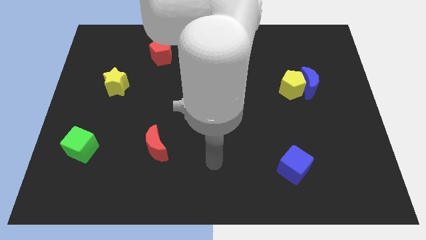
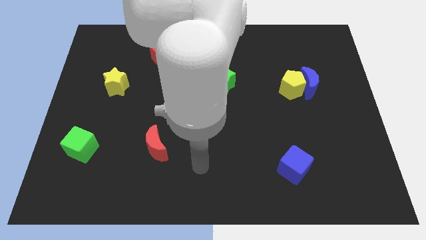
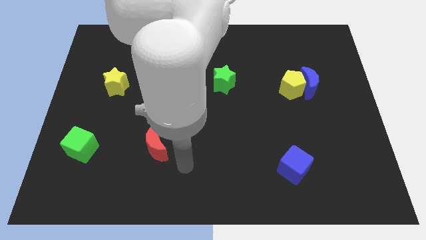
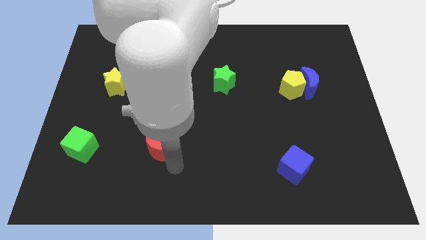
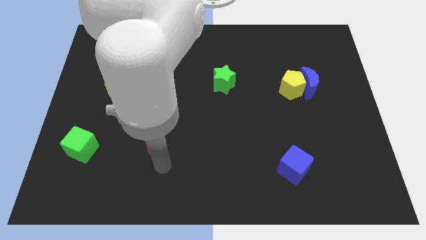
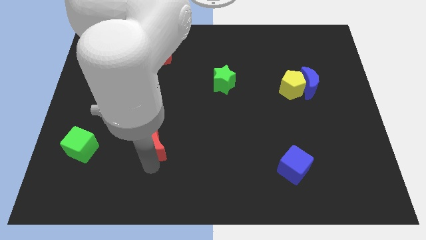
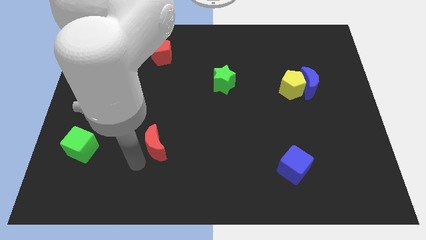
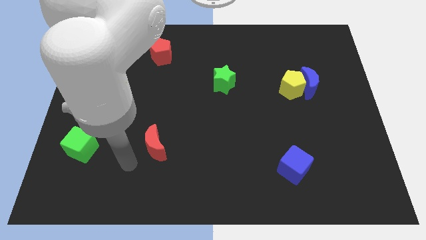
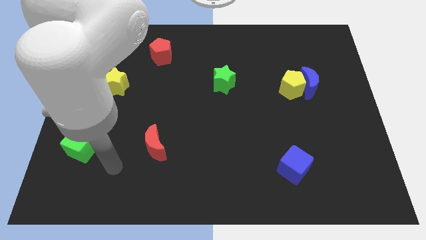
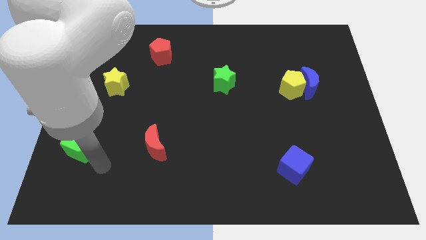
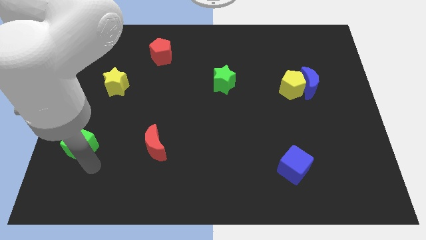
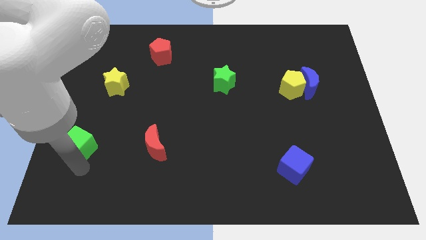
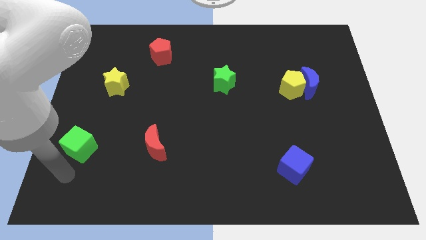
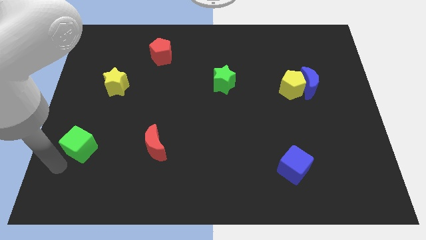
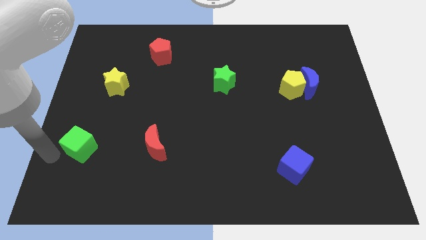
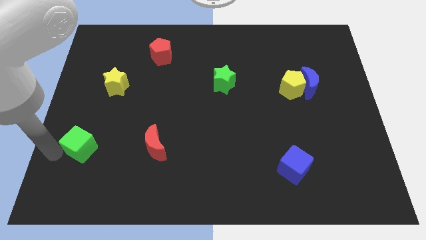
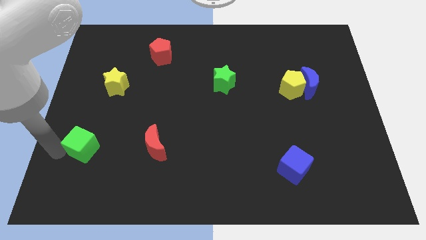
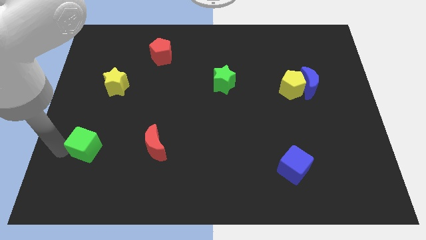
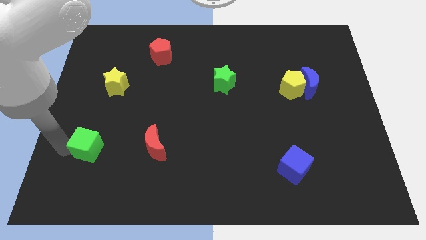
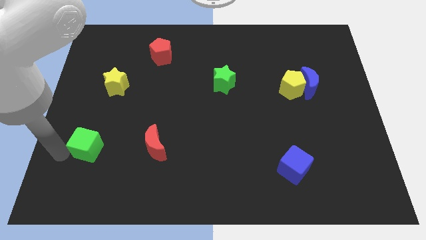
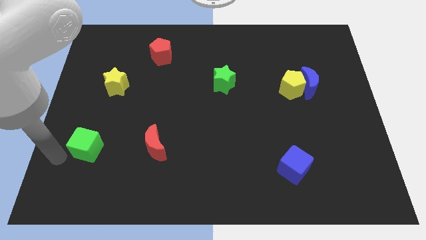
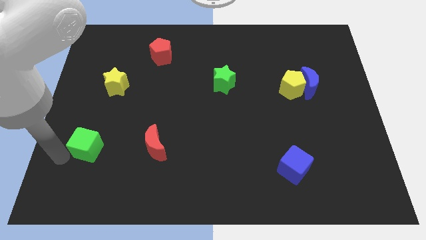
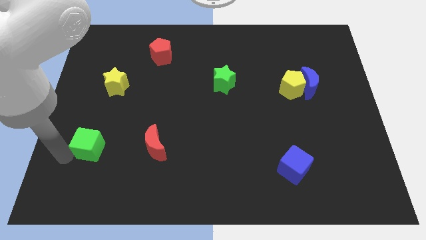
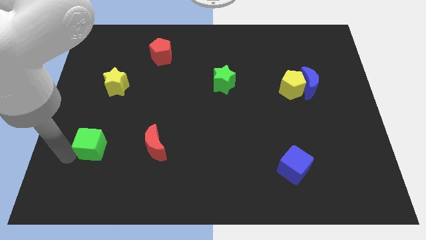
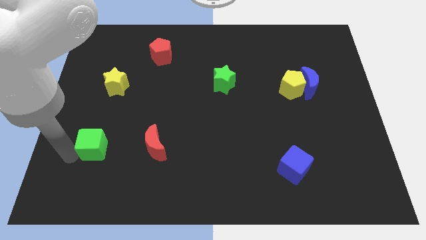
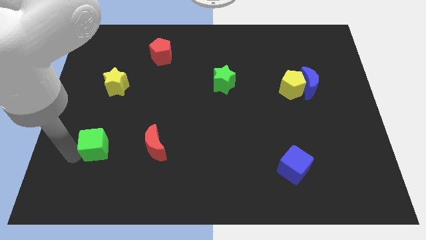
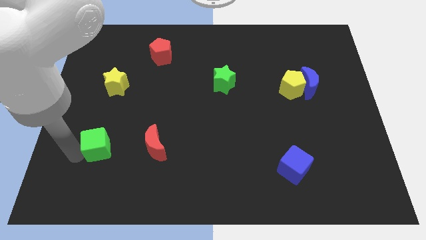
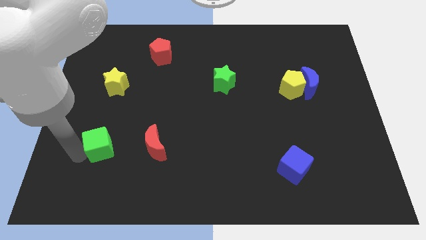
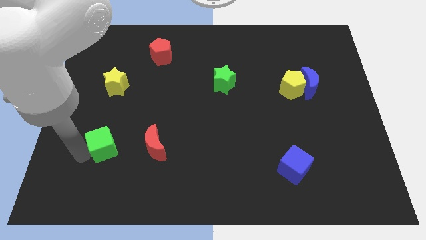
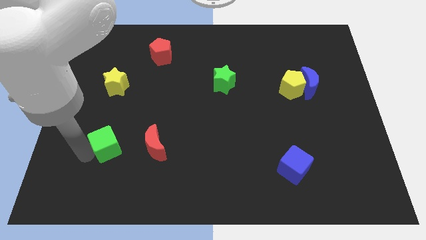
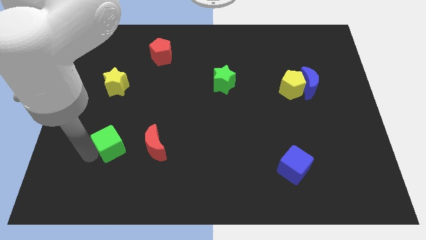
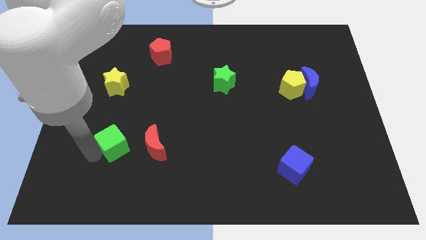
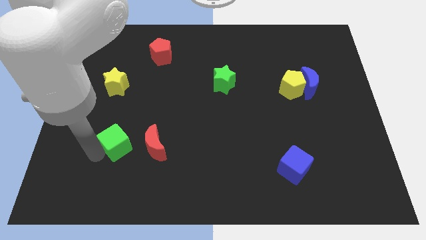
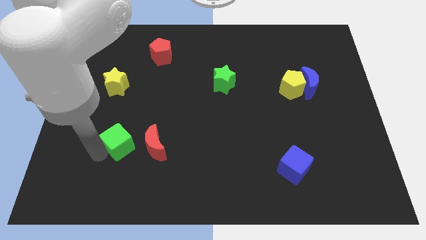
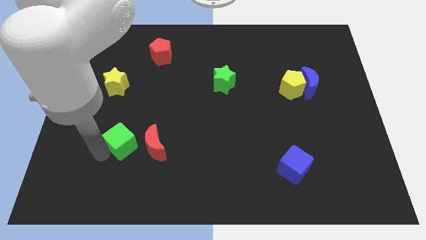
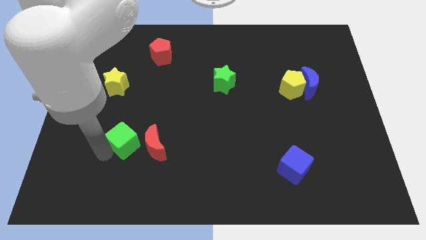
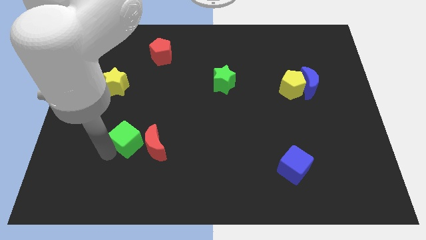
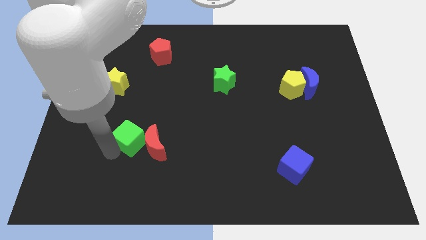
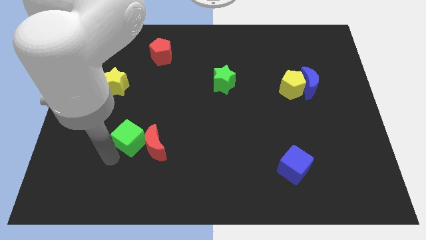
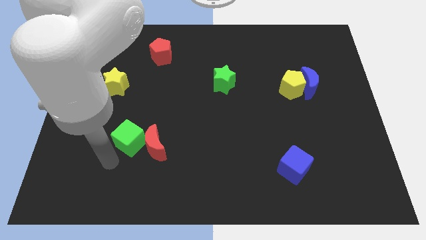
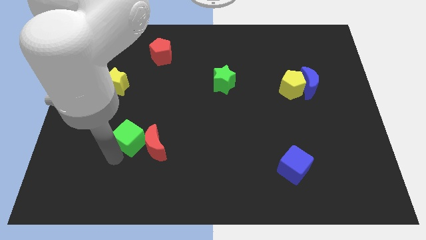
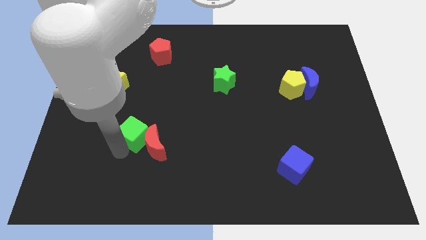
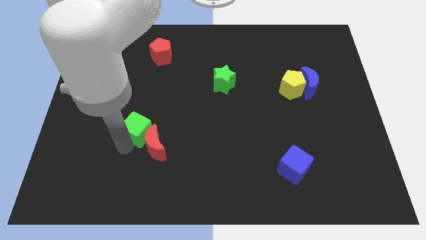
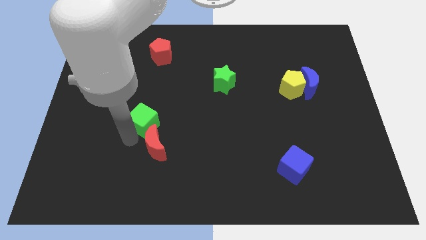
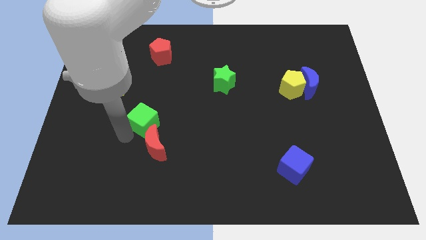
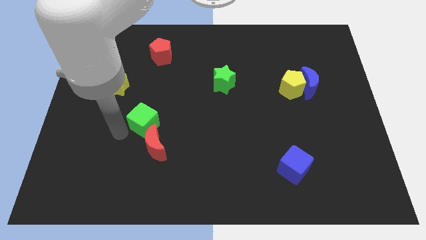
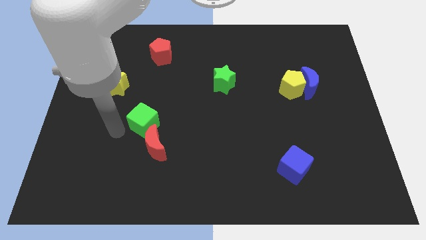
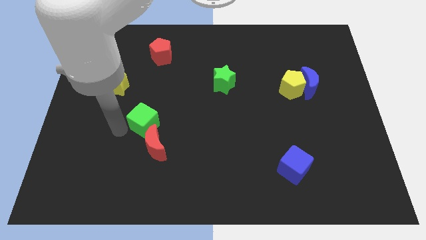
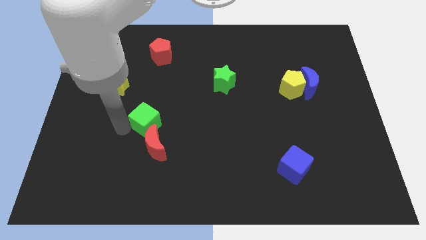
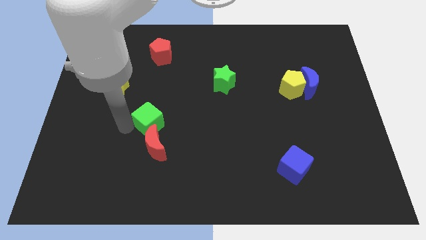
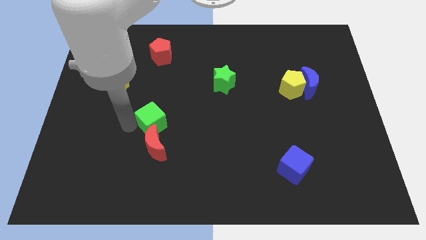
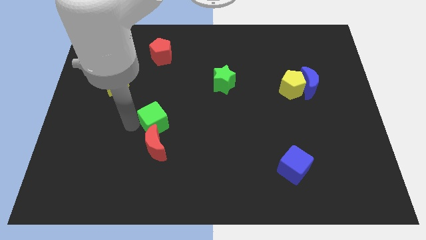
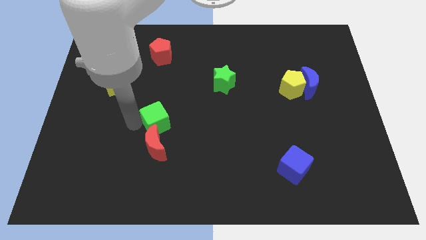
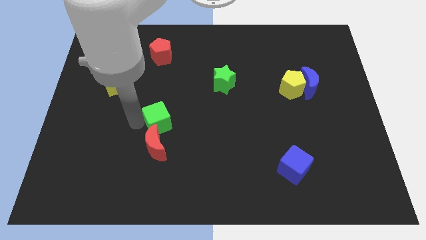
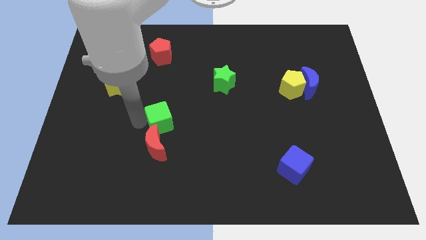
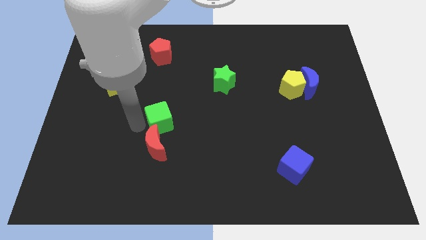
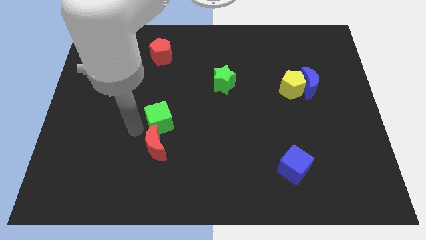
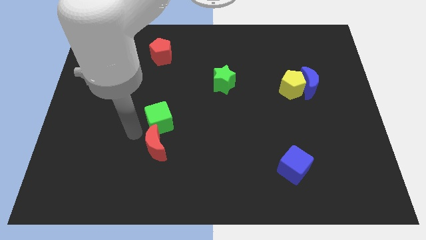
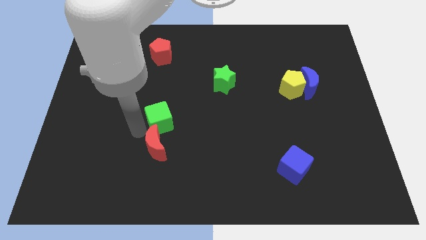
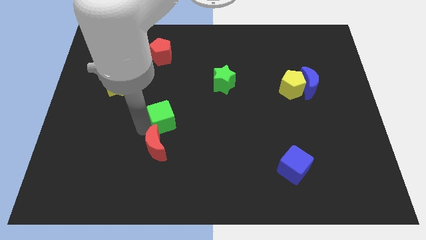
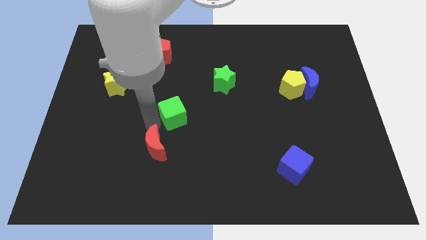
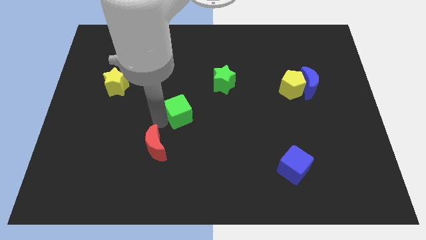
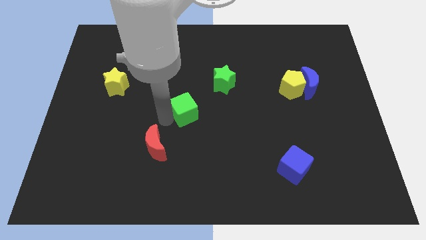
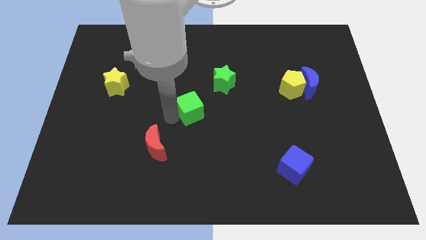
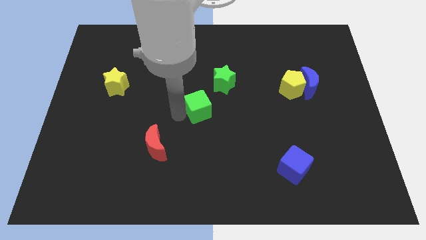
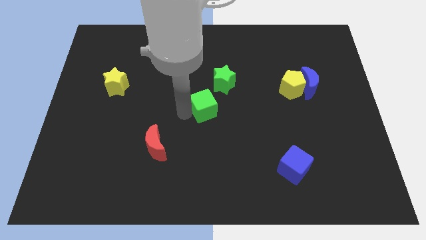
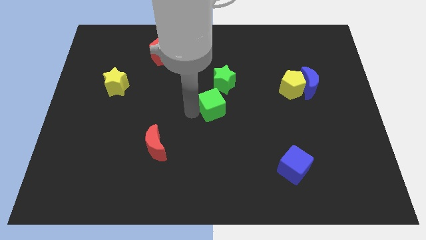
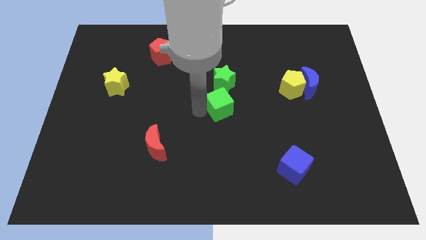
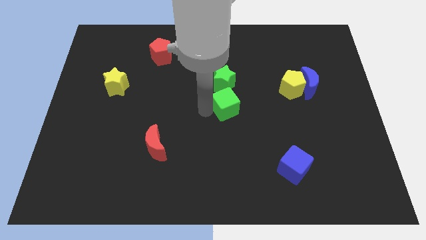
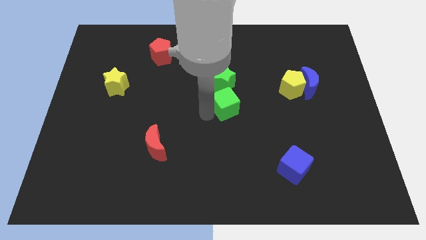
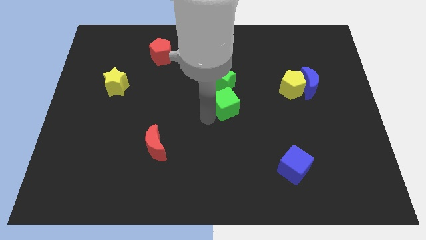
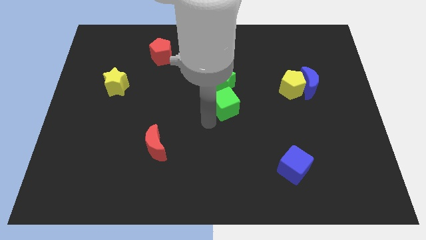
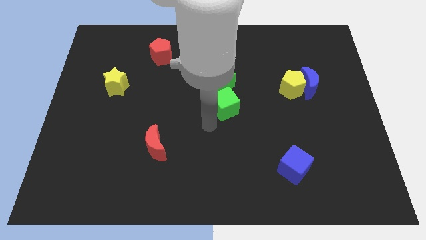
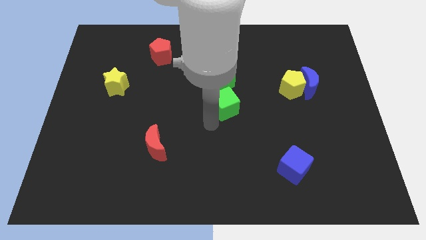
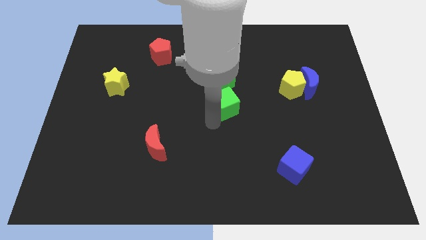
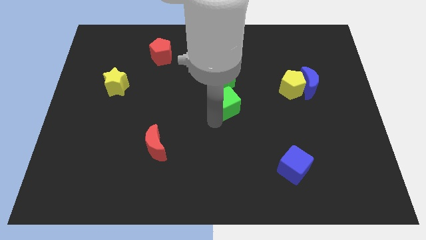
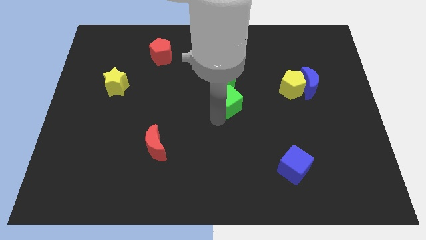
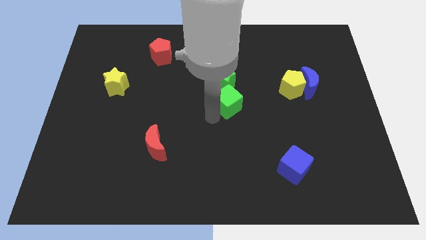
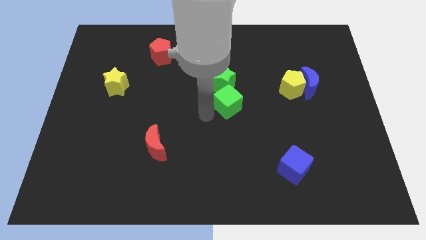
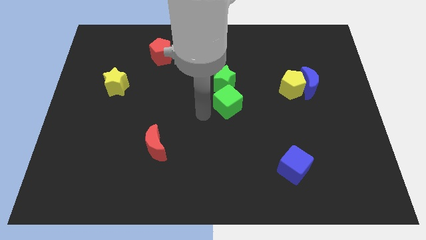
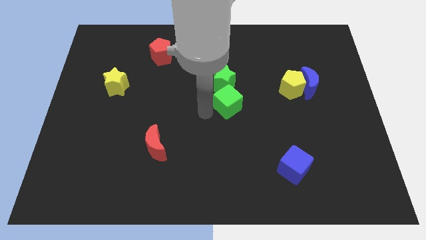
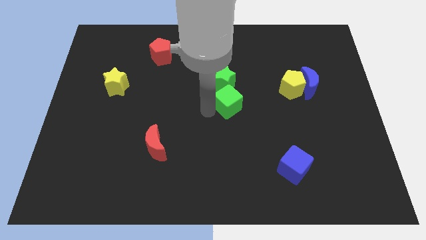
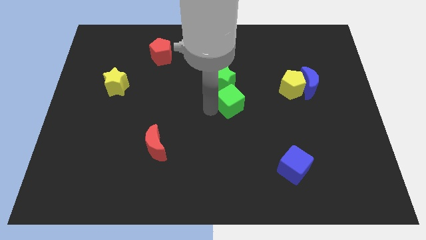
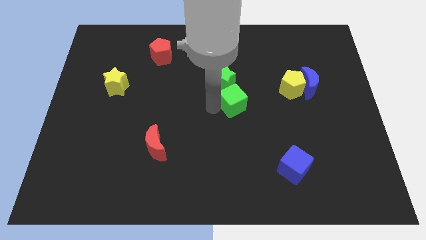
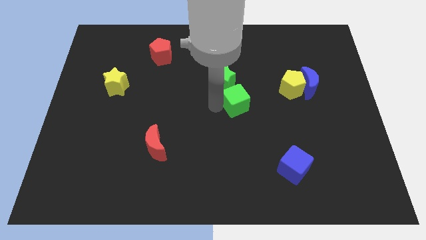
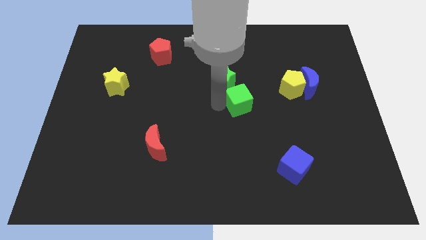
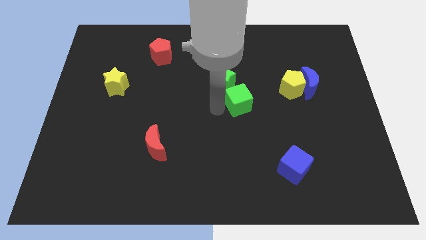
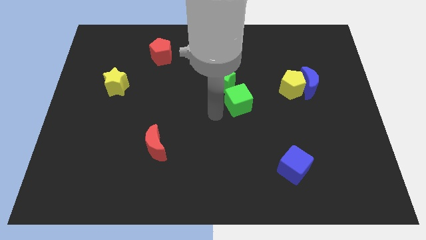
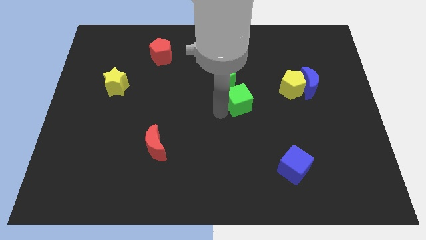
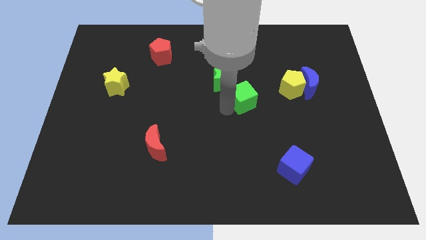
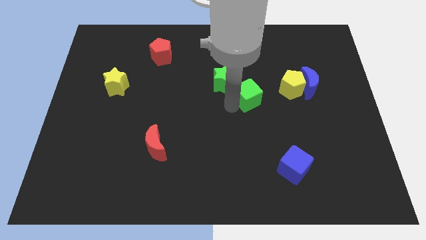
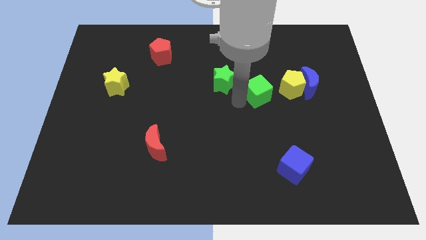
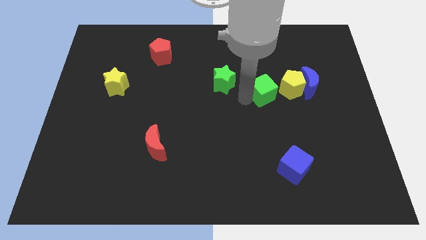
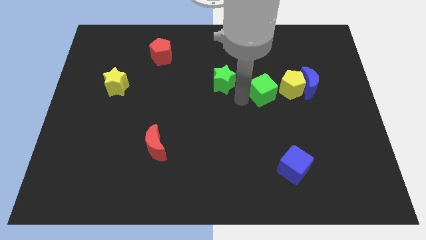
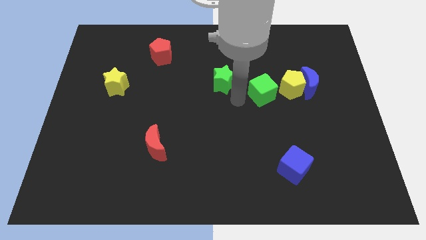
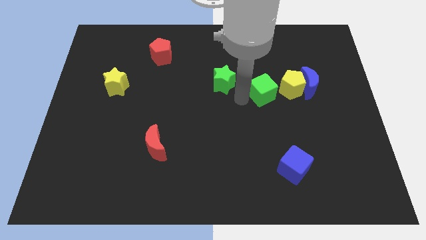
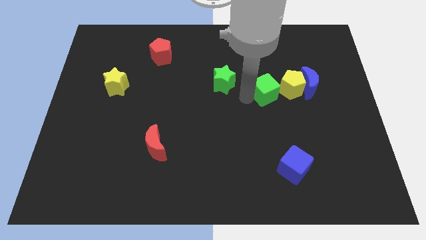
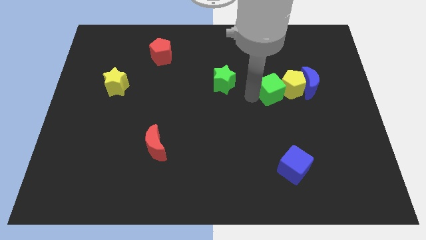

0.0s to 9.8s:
push the green cube close to the yellow pentagon
